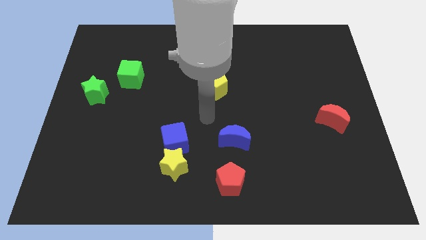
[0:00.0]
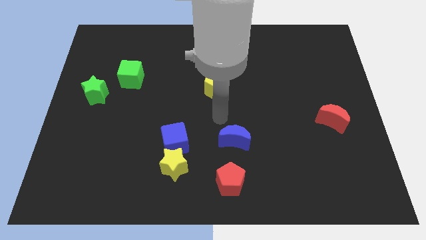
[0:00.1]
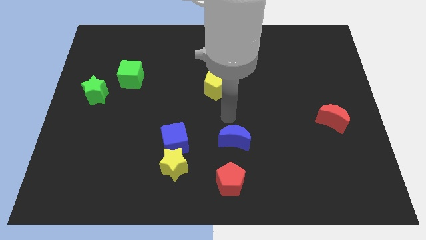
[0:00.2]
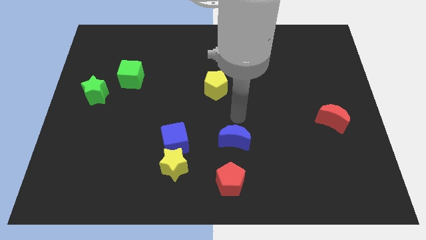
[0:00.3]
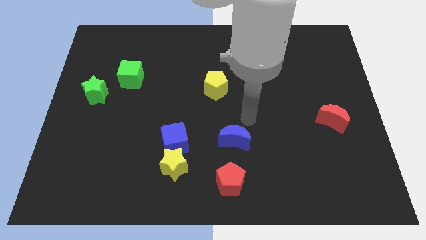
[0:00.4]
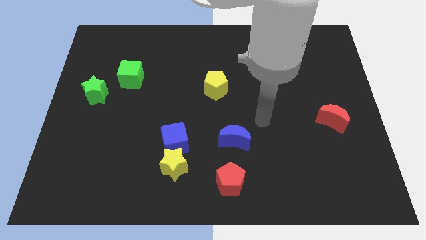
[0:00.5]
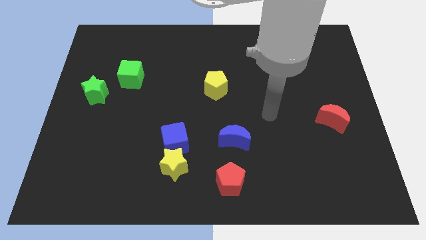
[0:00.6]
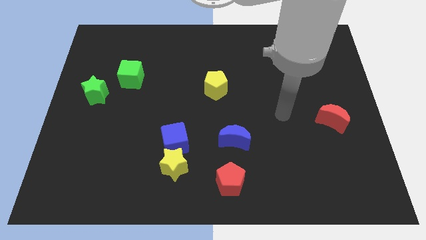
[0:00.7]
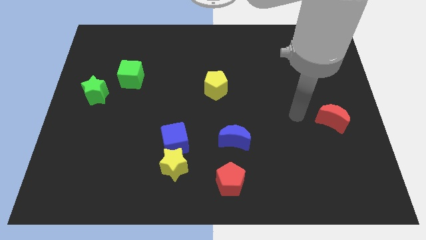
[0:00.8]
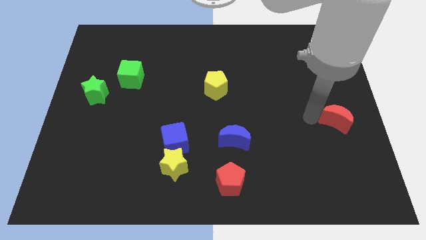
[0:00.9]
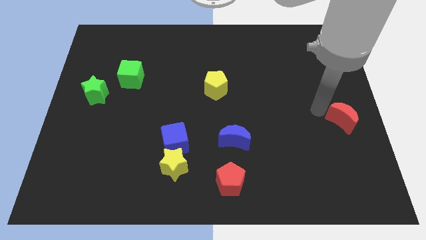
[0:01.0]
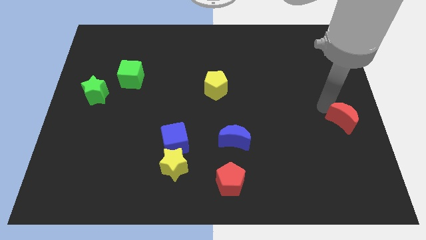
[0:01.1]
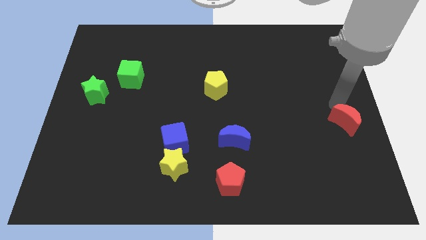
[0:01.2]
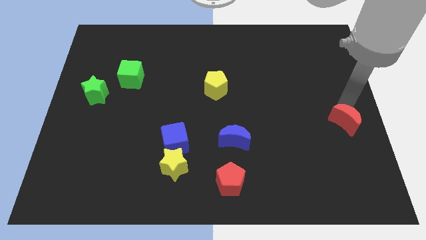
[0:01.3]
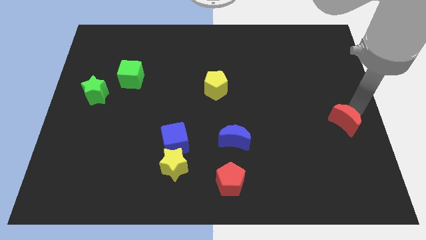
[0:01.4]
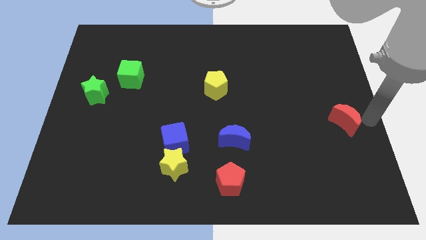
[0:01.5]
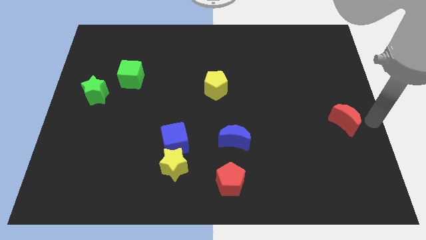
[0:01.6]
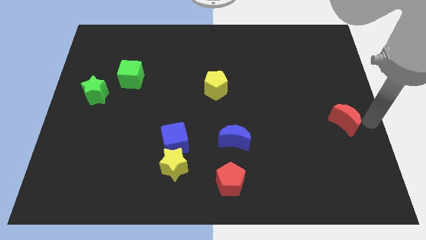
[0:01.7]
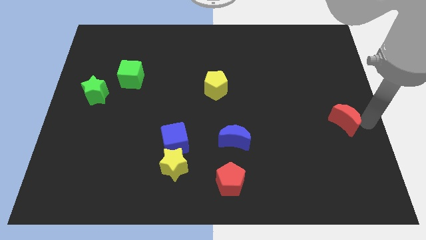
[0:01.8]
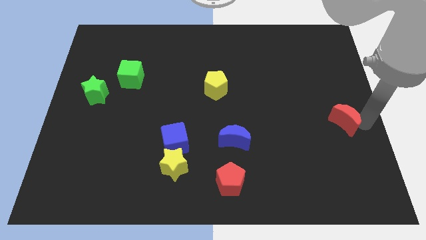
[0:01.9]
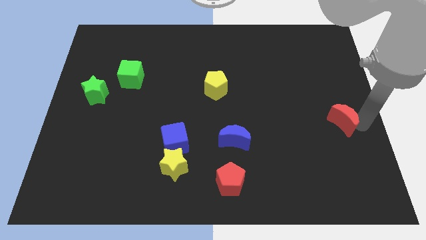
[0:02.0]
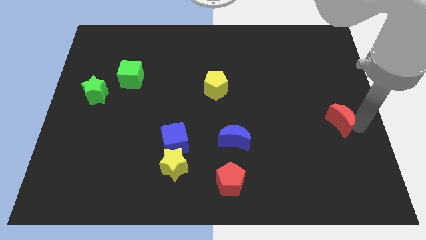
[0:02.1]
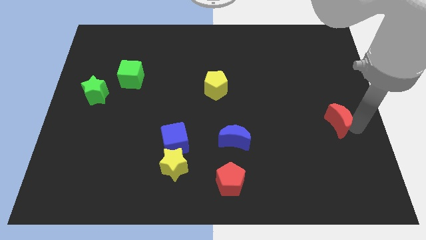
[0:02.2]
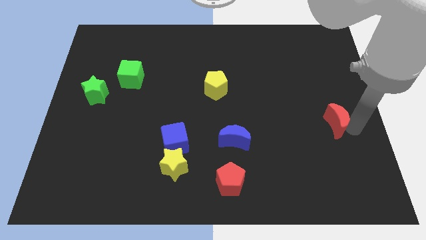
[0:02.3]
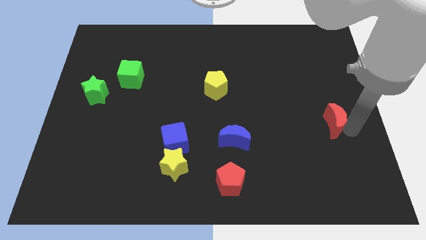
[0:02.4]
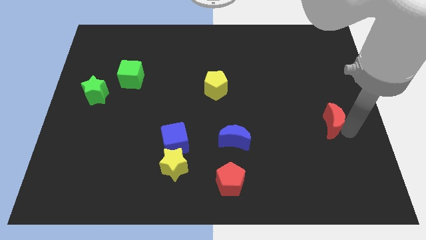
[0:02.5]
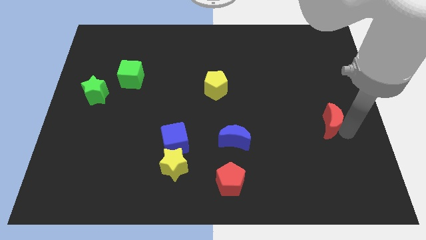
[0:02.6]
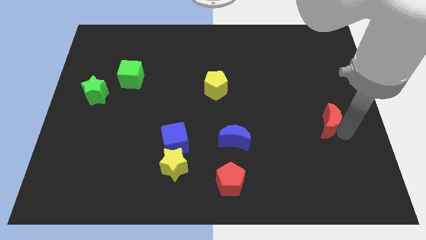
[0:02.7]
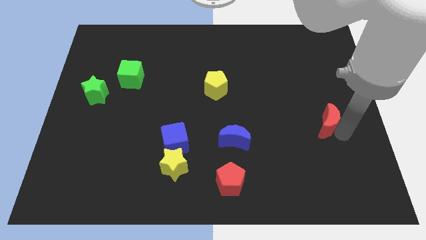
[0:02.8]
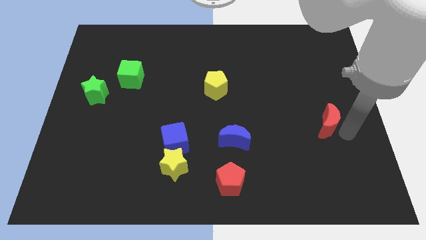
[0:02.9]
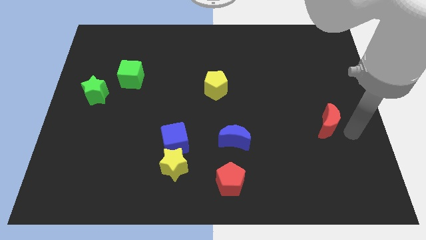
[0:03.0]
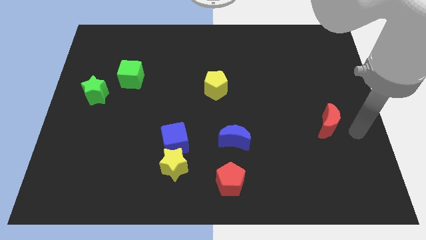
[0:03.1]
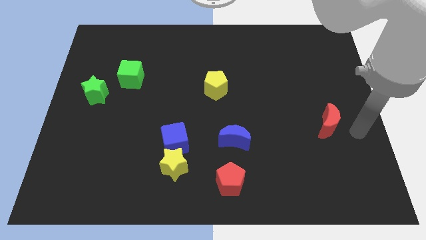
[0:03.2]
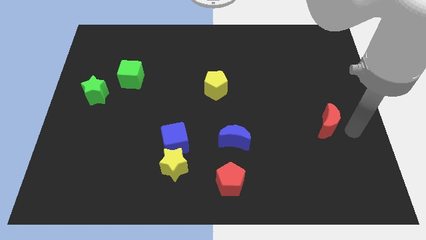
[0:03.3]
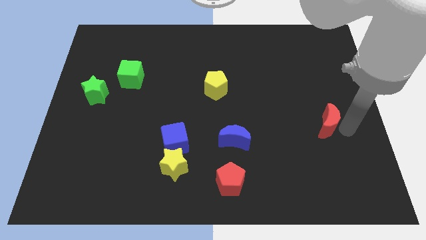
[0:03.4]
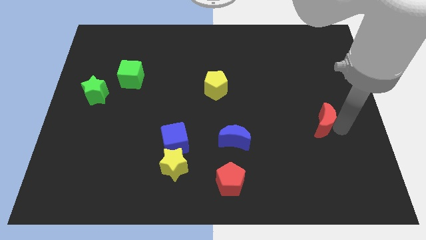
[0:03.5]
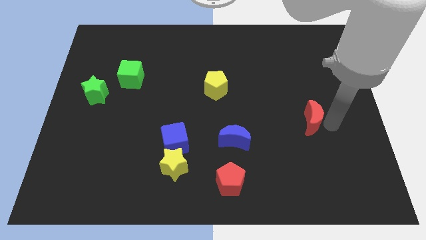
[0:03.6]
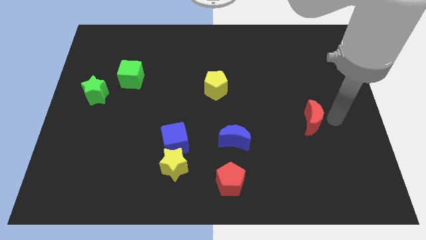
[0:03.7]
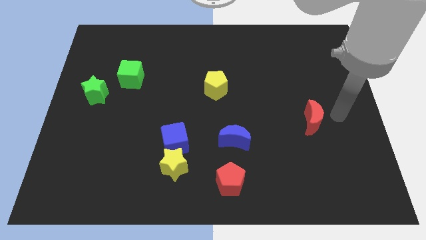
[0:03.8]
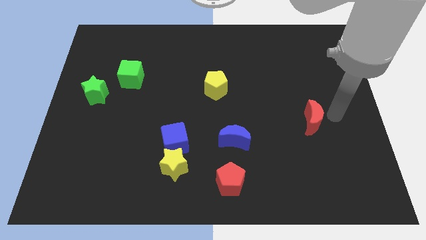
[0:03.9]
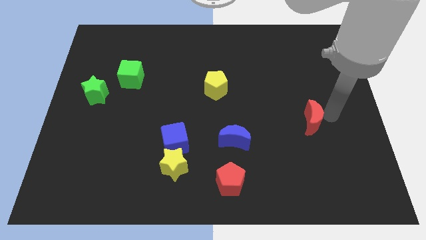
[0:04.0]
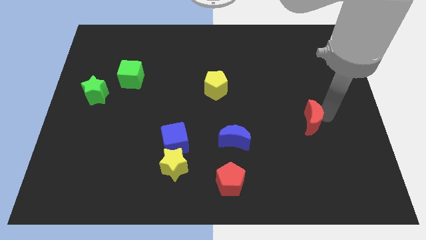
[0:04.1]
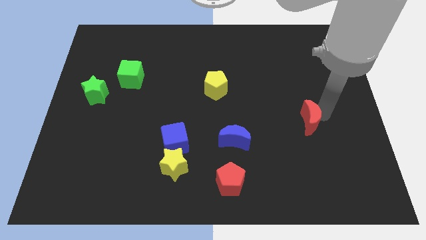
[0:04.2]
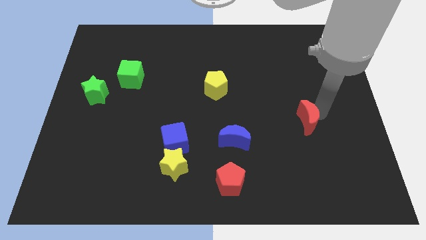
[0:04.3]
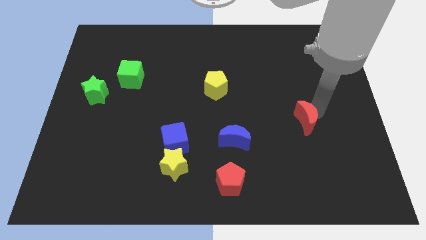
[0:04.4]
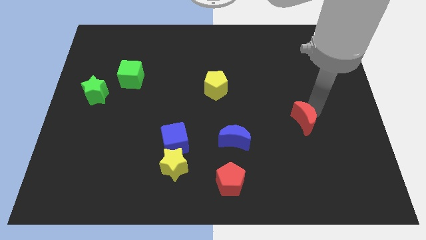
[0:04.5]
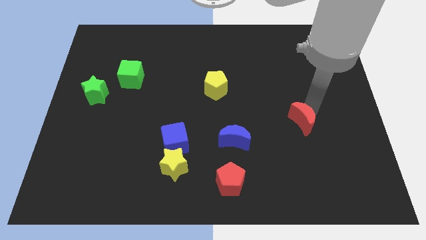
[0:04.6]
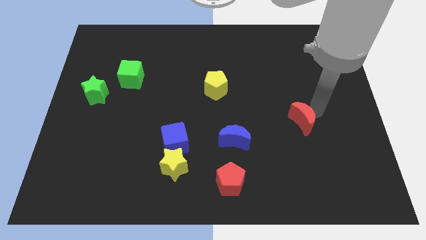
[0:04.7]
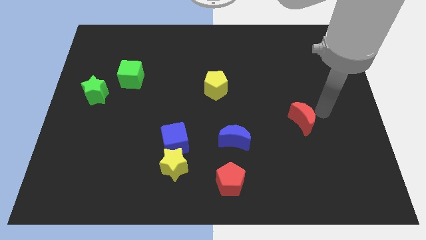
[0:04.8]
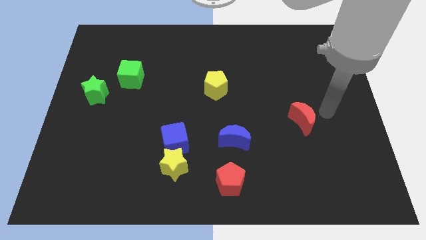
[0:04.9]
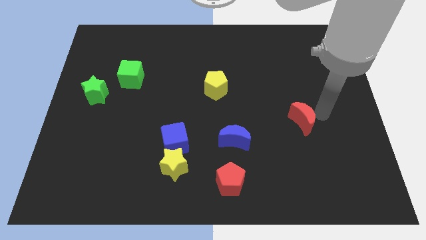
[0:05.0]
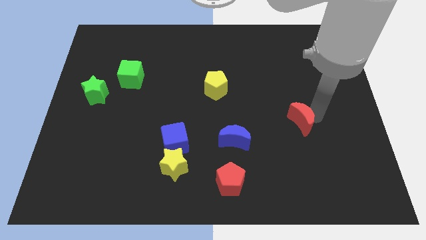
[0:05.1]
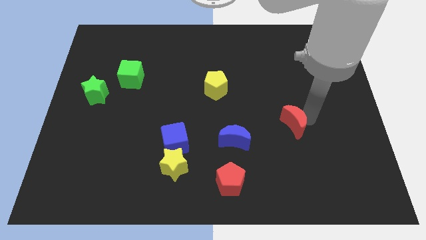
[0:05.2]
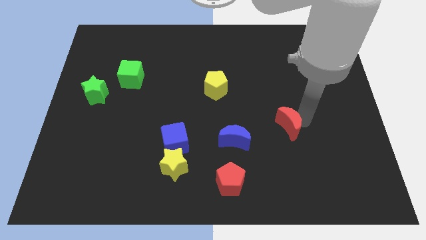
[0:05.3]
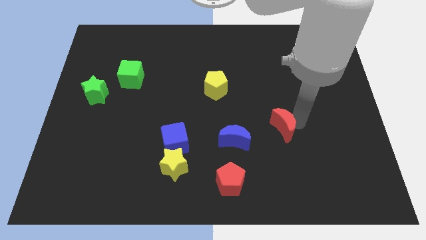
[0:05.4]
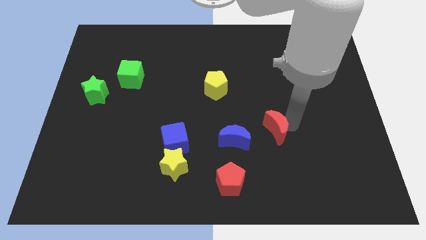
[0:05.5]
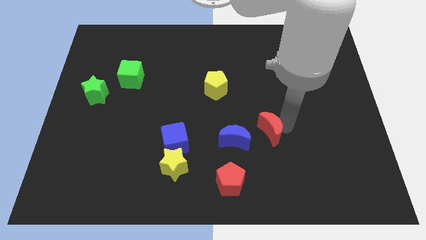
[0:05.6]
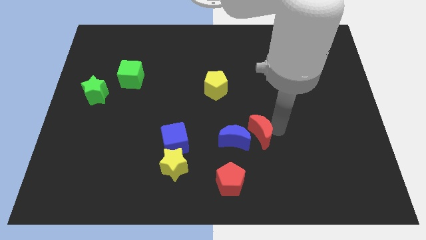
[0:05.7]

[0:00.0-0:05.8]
slide the red moon to the blue moon
